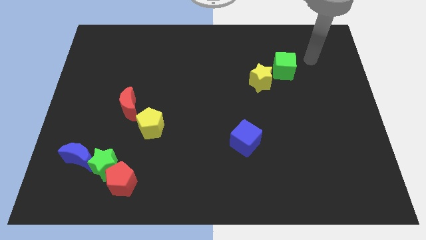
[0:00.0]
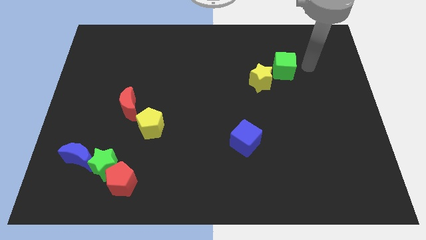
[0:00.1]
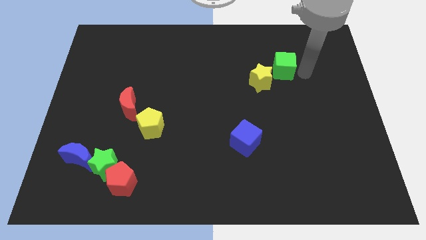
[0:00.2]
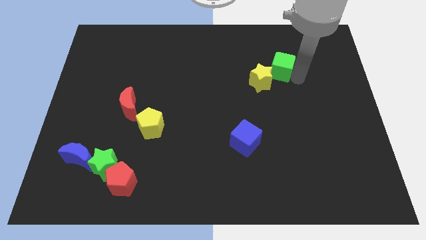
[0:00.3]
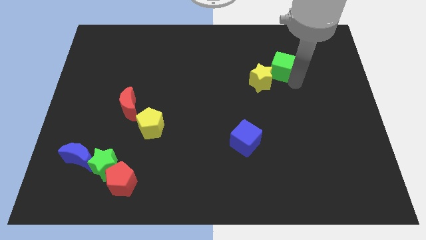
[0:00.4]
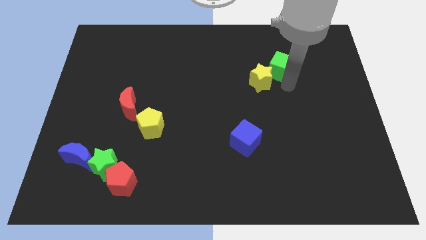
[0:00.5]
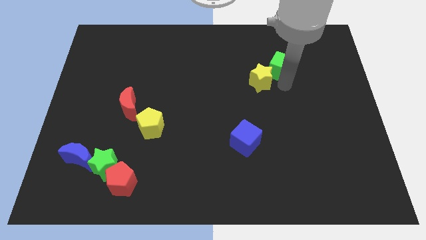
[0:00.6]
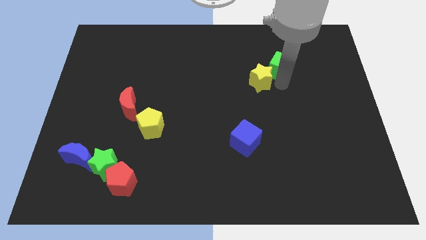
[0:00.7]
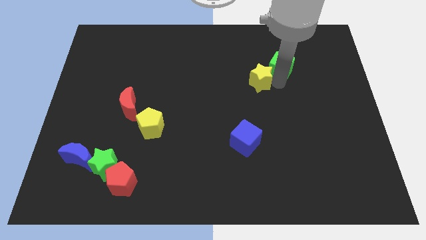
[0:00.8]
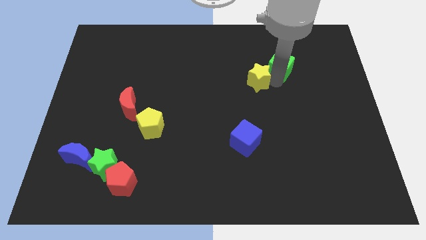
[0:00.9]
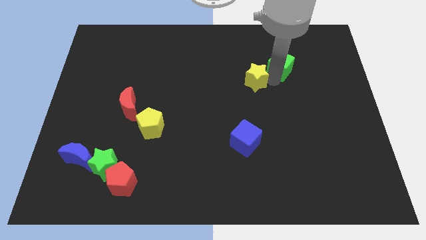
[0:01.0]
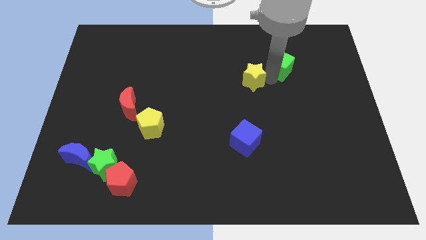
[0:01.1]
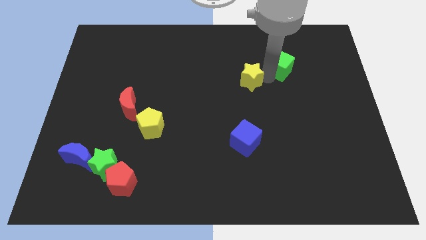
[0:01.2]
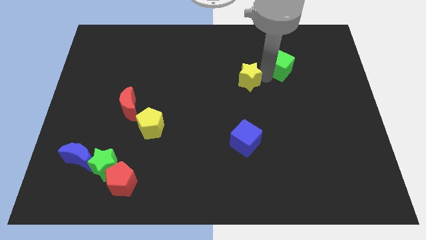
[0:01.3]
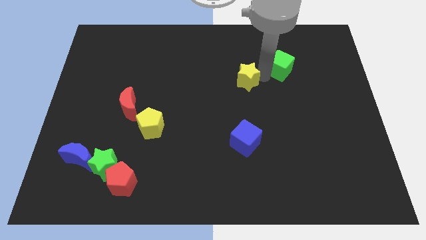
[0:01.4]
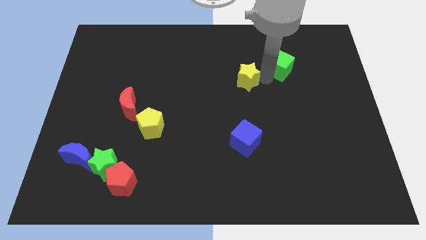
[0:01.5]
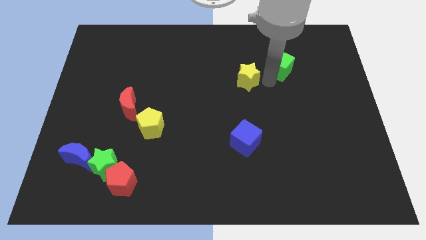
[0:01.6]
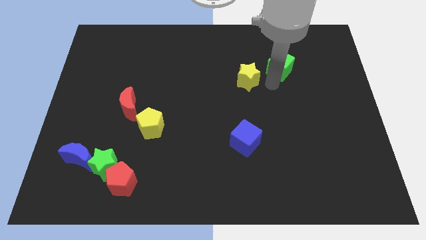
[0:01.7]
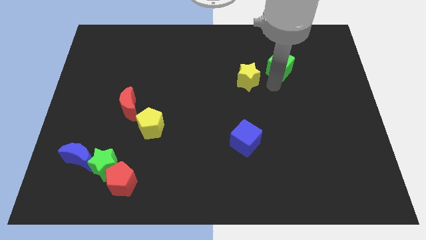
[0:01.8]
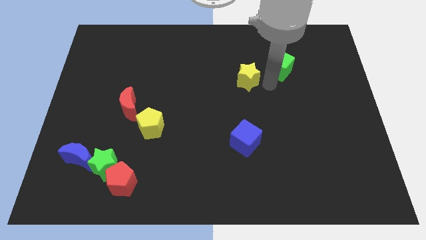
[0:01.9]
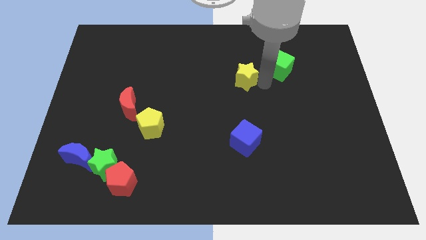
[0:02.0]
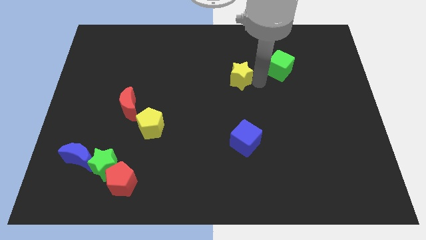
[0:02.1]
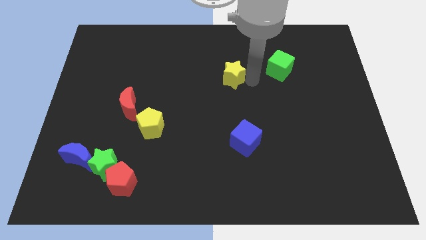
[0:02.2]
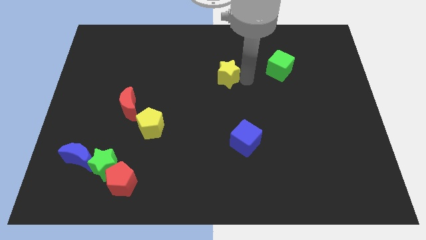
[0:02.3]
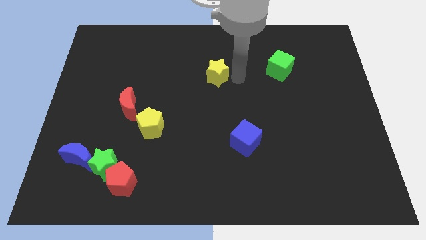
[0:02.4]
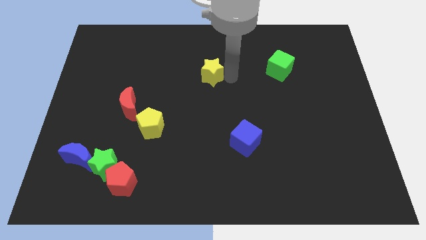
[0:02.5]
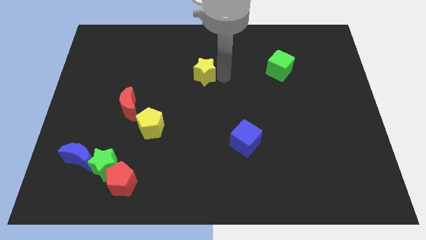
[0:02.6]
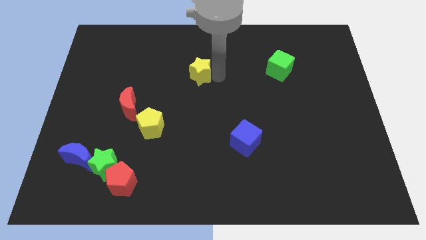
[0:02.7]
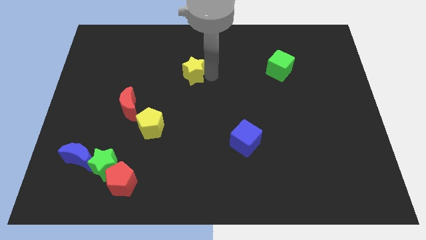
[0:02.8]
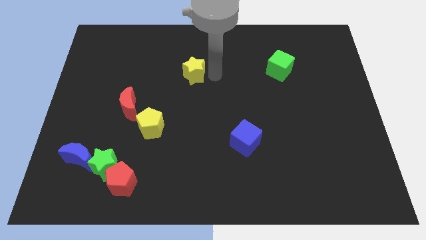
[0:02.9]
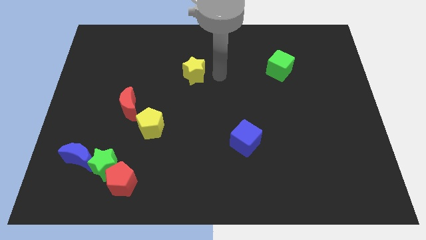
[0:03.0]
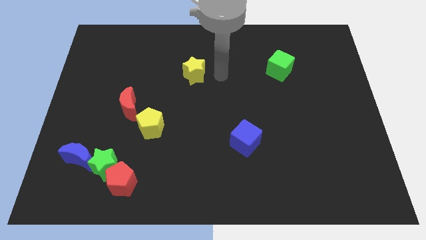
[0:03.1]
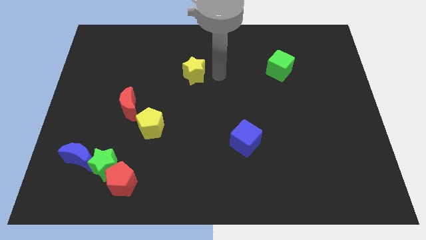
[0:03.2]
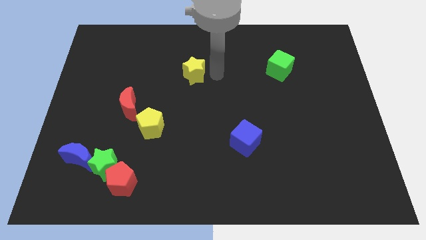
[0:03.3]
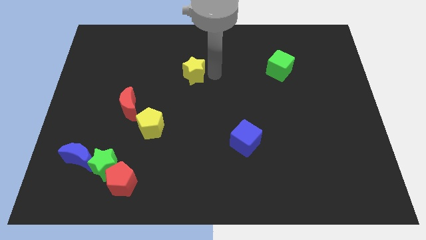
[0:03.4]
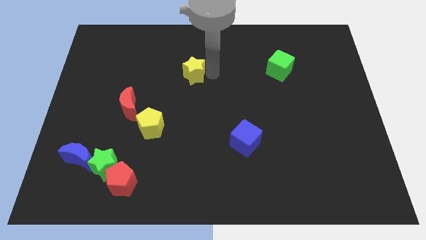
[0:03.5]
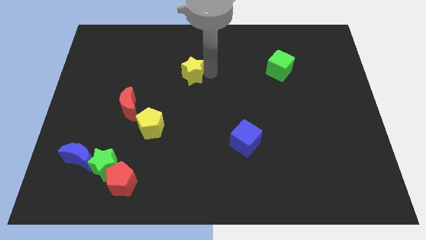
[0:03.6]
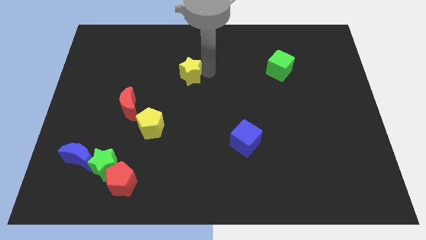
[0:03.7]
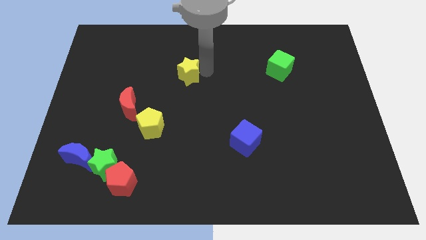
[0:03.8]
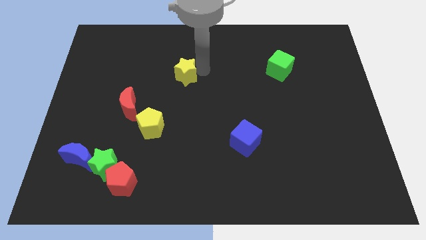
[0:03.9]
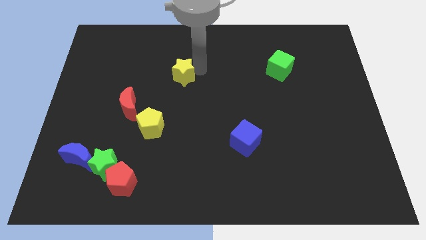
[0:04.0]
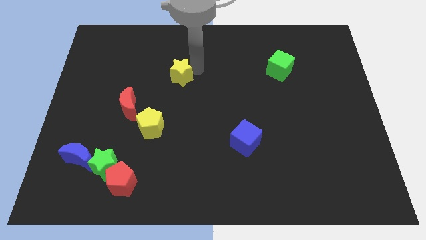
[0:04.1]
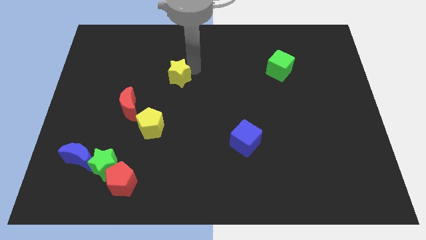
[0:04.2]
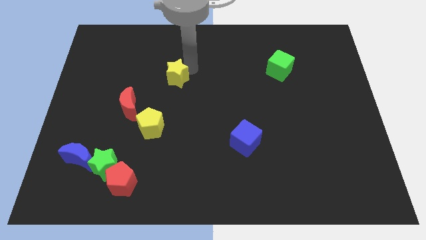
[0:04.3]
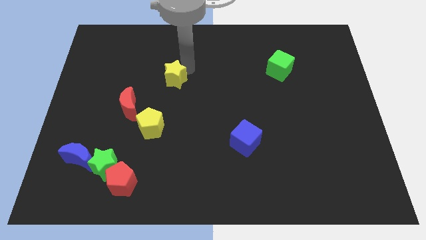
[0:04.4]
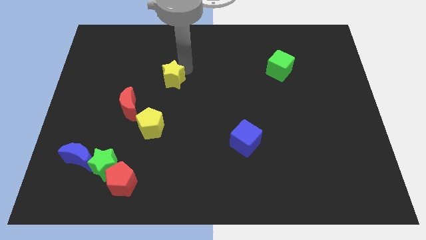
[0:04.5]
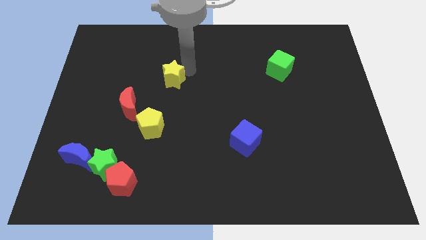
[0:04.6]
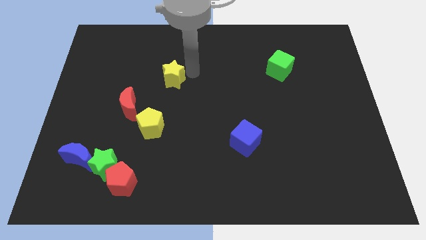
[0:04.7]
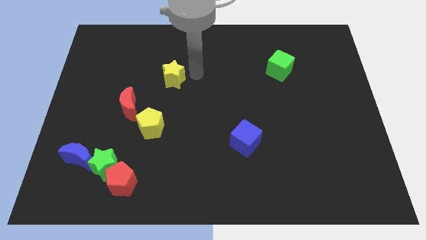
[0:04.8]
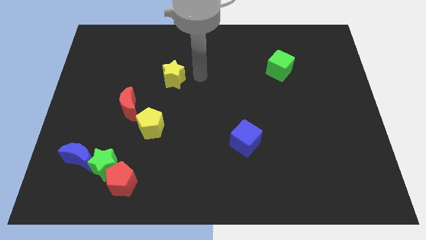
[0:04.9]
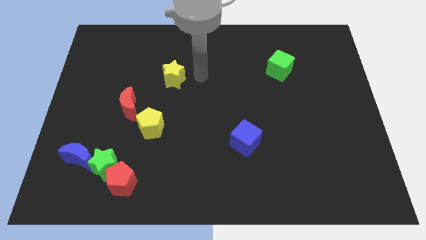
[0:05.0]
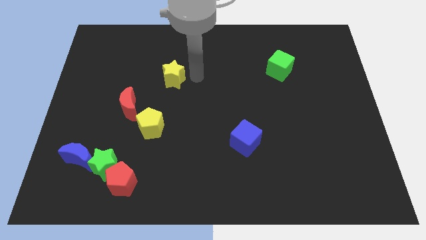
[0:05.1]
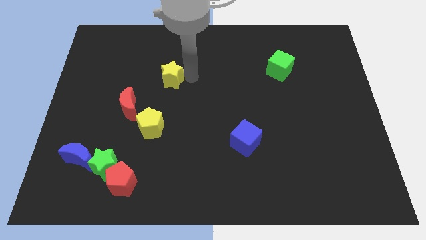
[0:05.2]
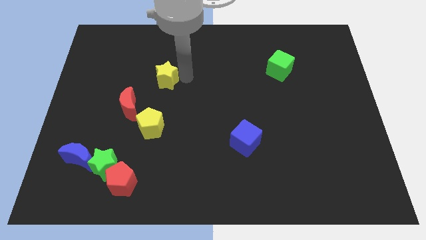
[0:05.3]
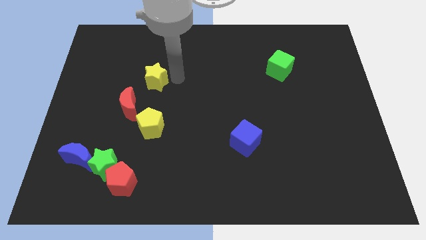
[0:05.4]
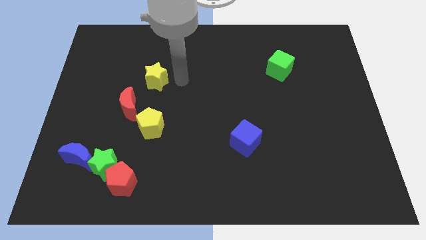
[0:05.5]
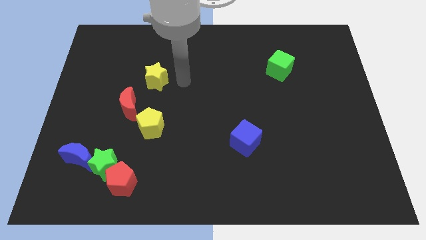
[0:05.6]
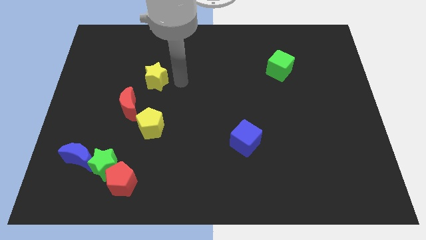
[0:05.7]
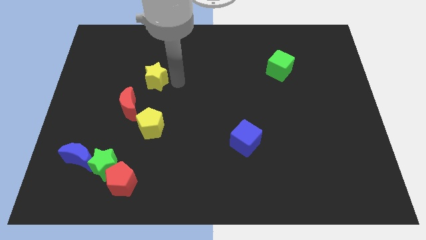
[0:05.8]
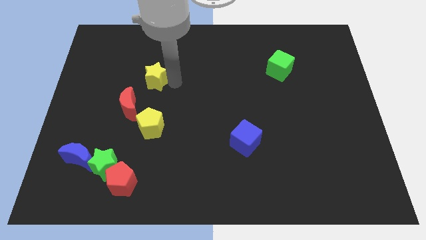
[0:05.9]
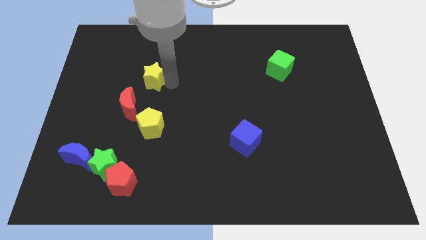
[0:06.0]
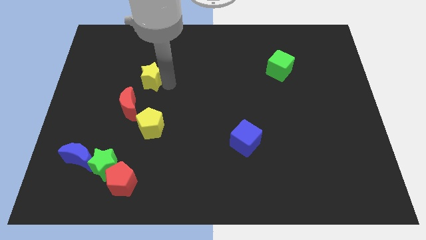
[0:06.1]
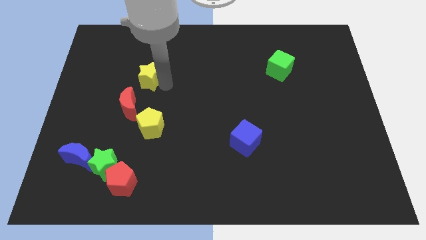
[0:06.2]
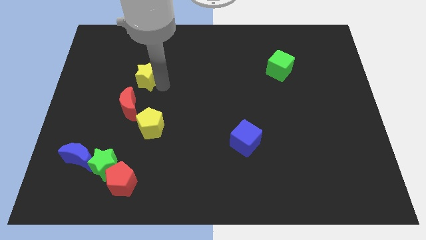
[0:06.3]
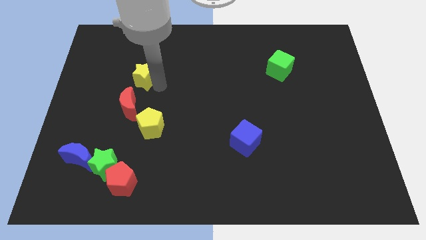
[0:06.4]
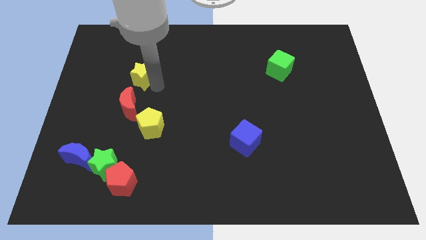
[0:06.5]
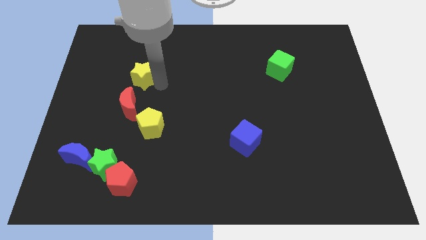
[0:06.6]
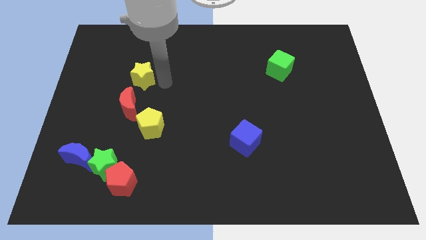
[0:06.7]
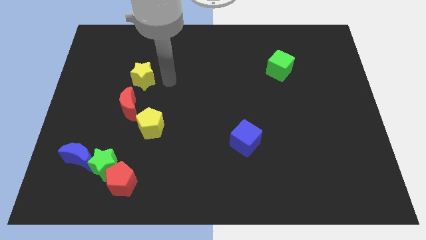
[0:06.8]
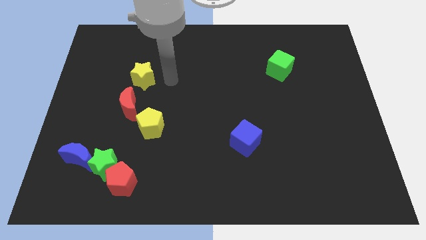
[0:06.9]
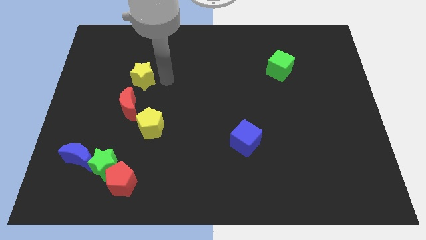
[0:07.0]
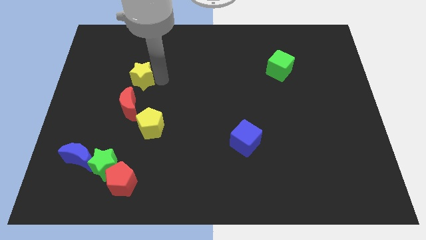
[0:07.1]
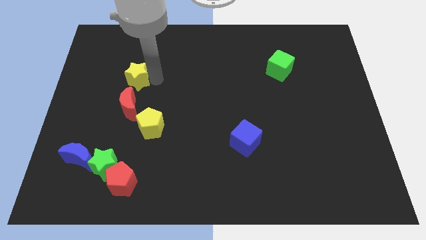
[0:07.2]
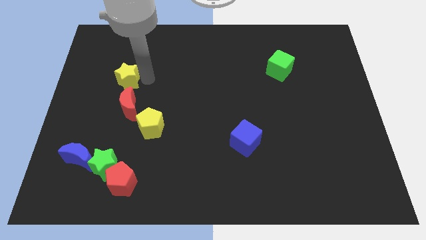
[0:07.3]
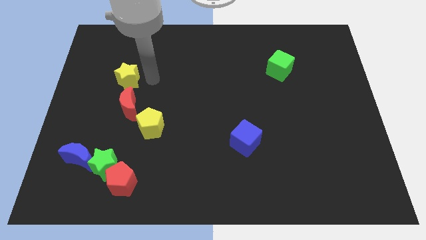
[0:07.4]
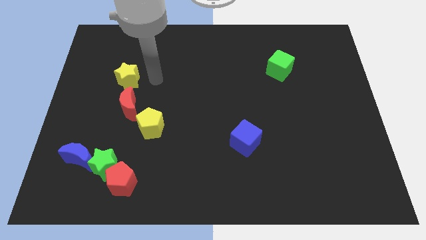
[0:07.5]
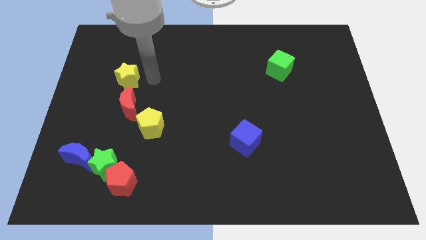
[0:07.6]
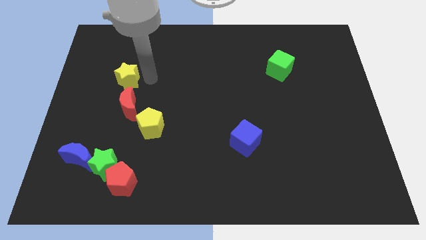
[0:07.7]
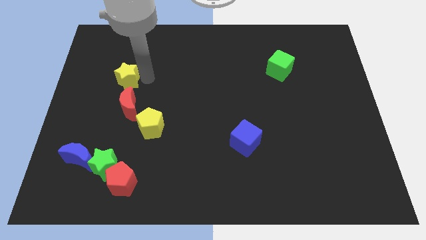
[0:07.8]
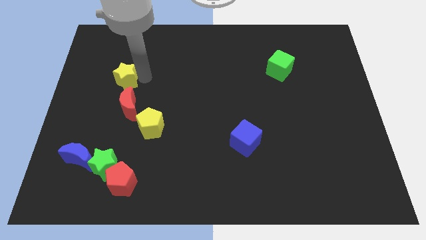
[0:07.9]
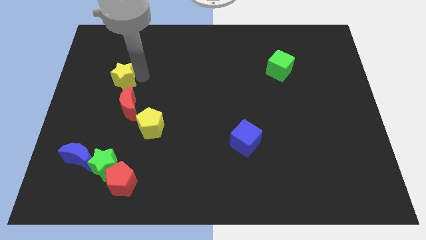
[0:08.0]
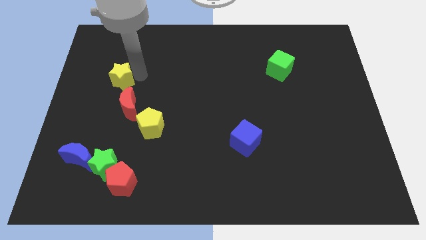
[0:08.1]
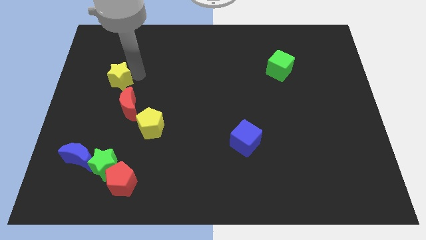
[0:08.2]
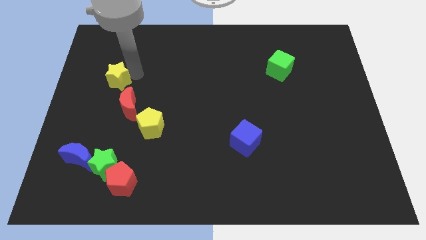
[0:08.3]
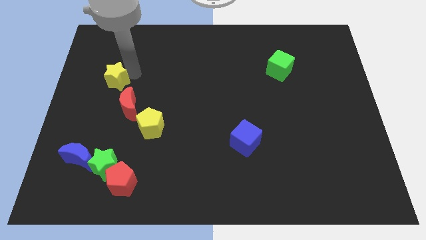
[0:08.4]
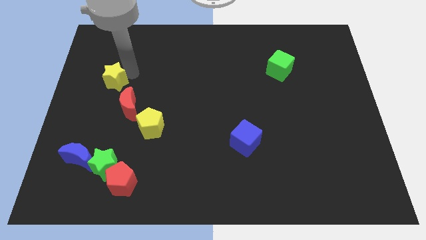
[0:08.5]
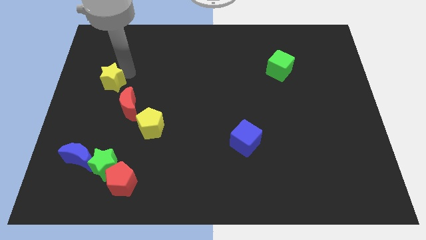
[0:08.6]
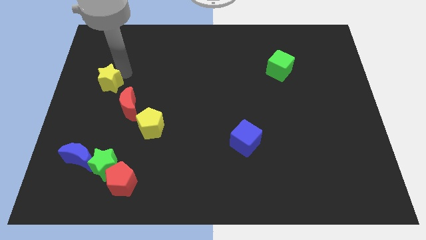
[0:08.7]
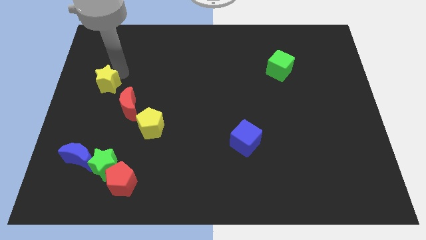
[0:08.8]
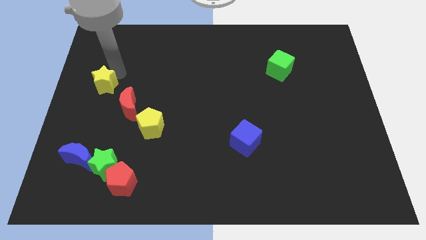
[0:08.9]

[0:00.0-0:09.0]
put the yellow star to the center left
